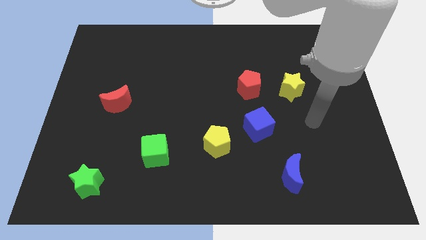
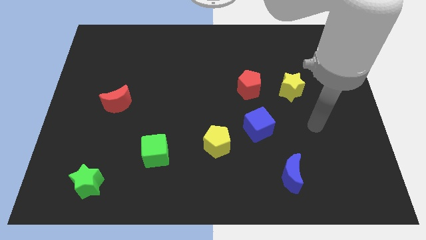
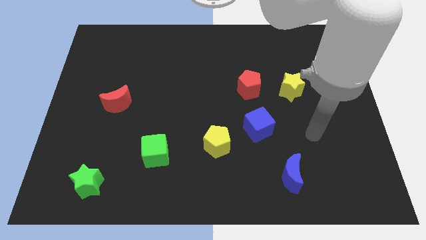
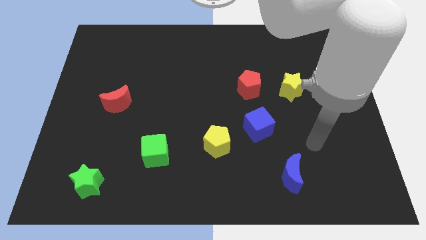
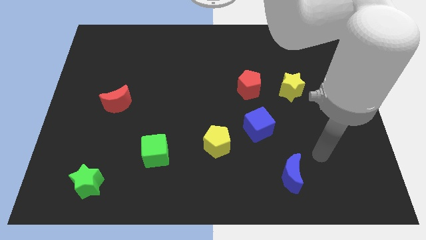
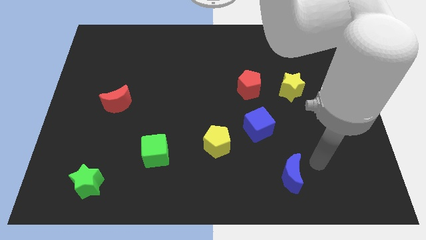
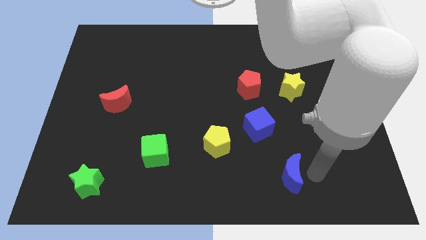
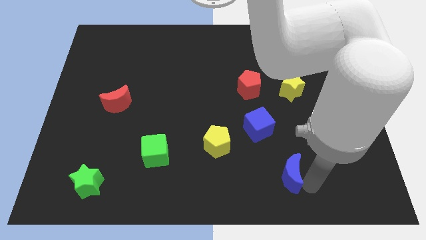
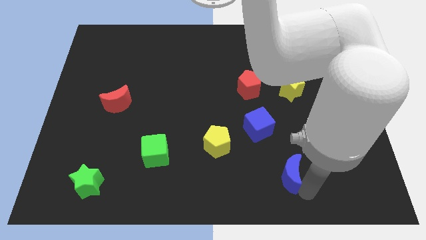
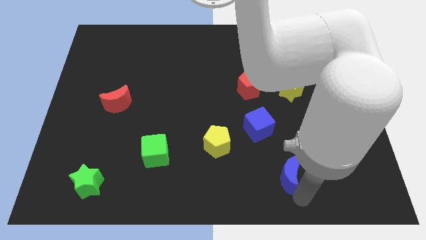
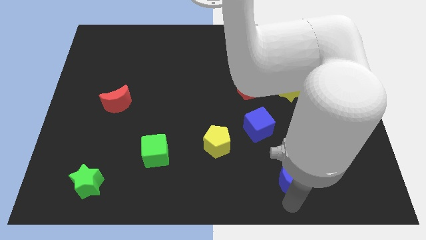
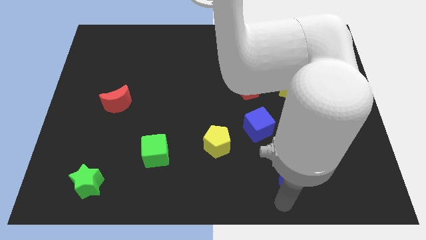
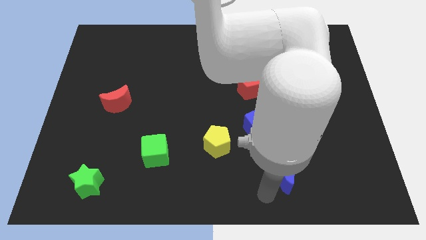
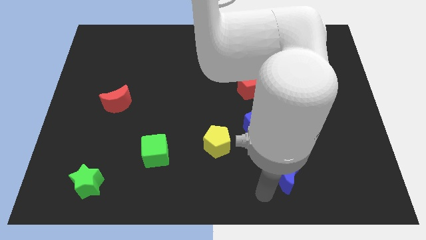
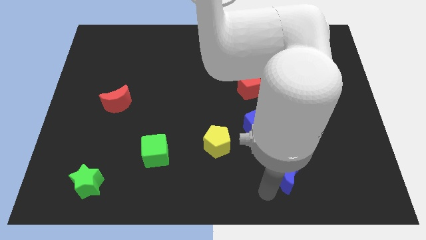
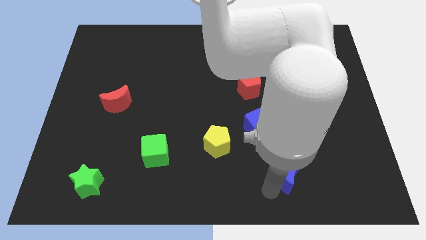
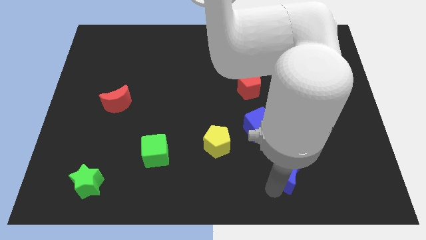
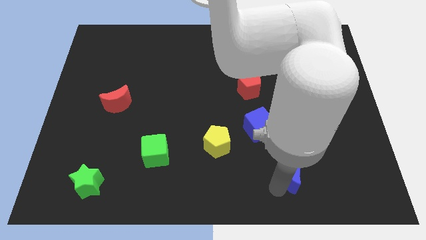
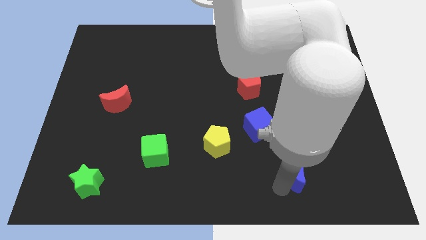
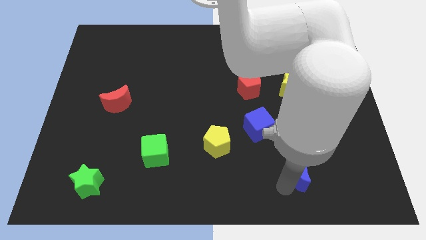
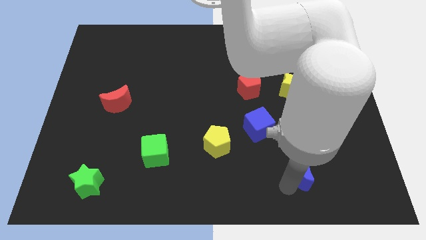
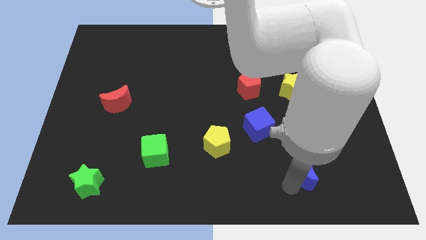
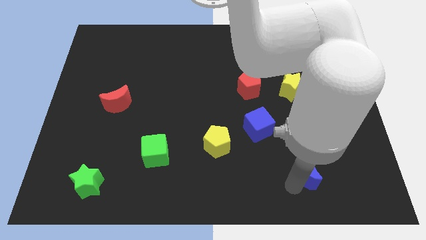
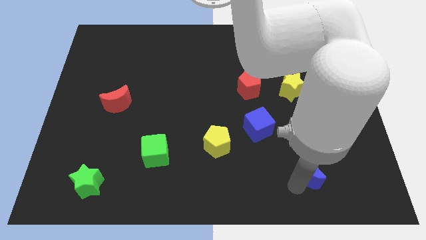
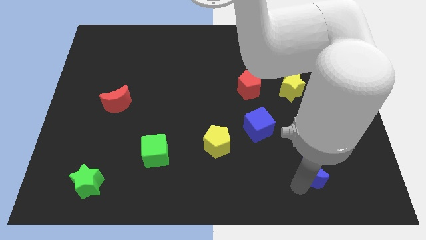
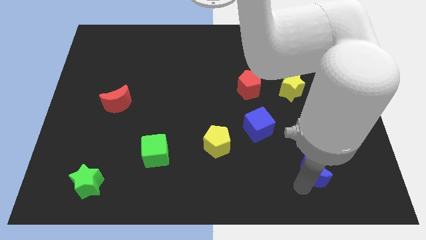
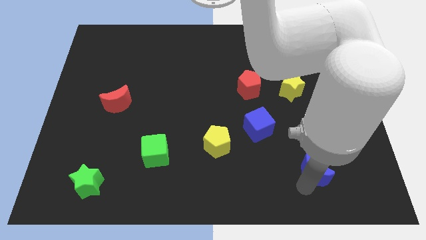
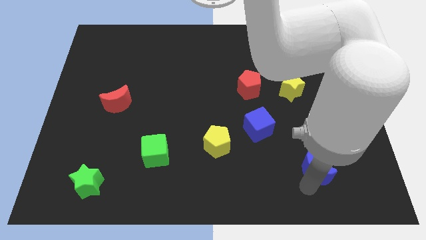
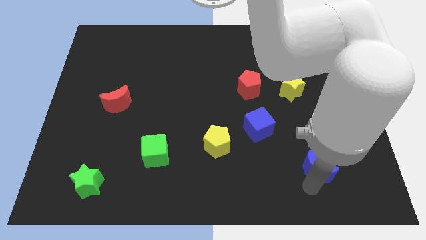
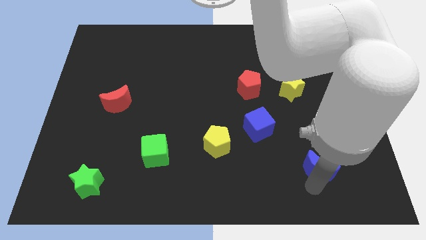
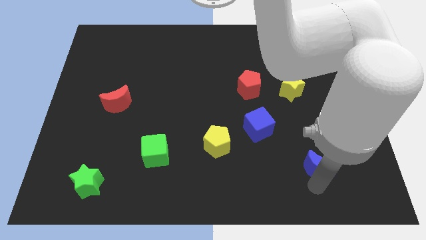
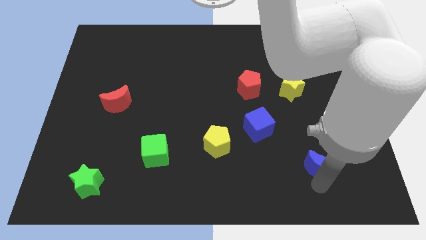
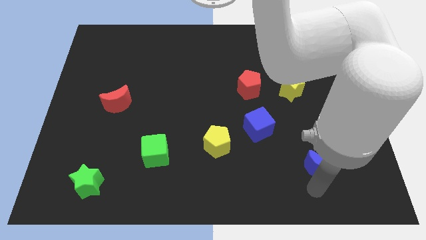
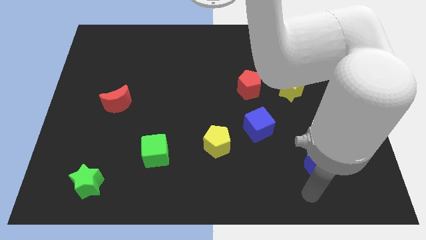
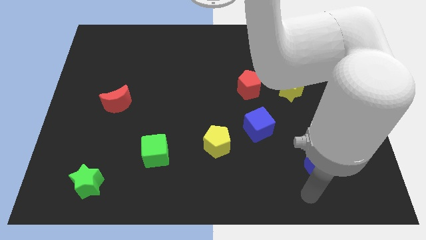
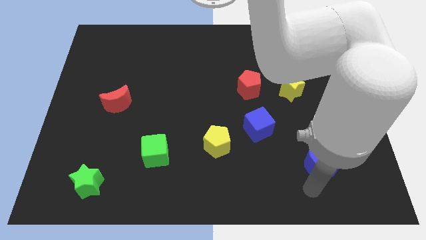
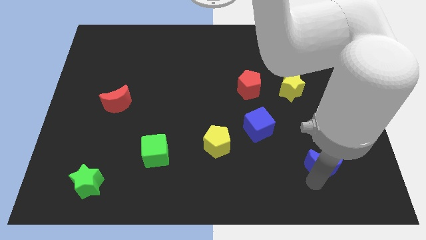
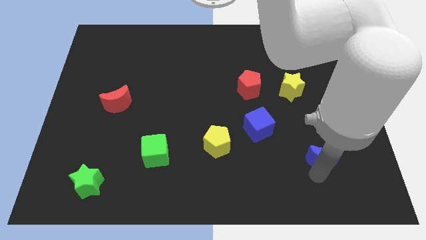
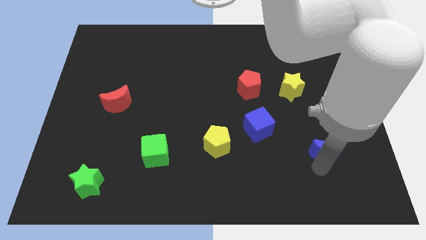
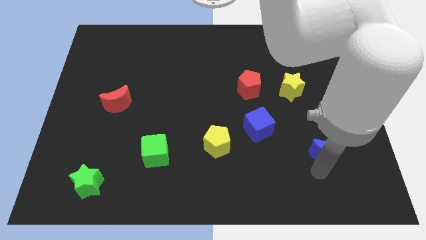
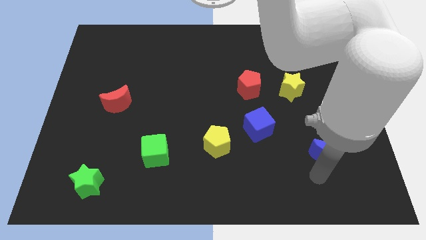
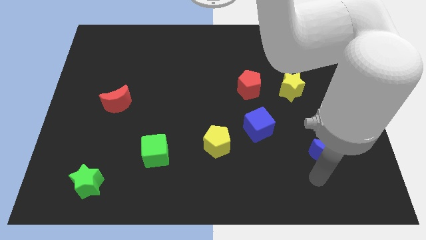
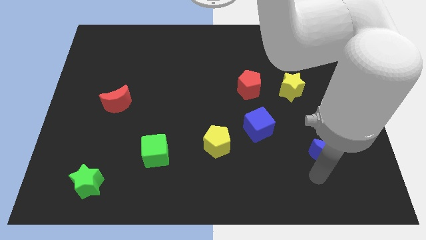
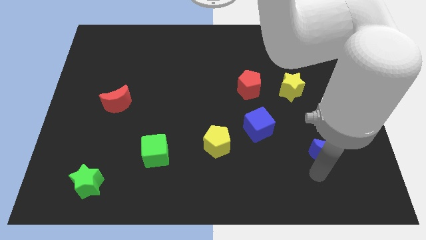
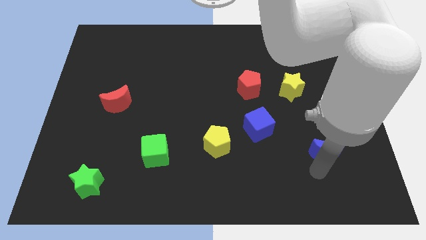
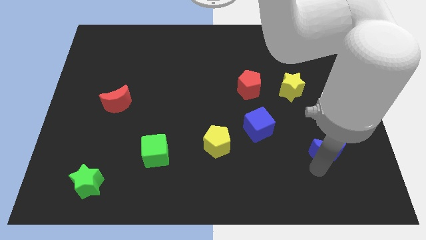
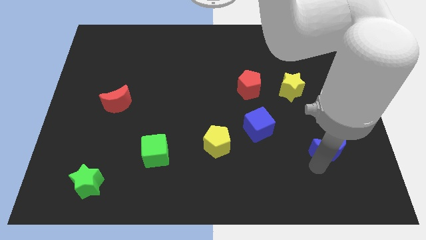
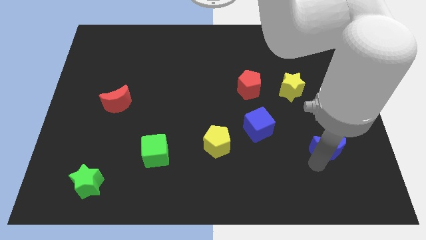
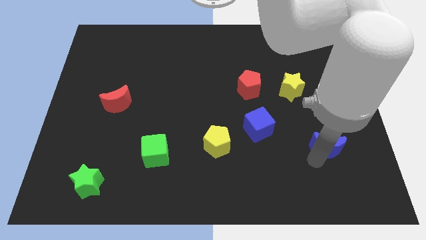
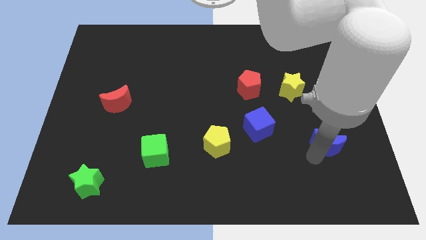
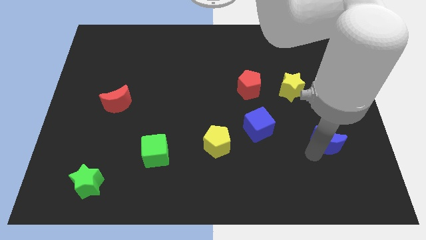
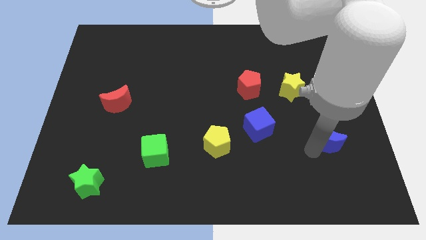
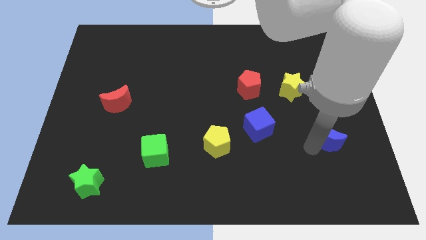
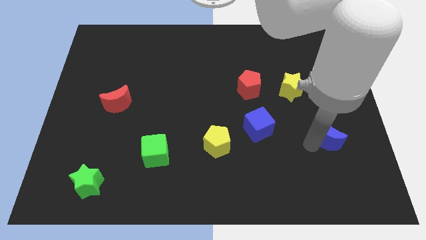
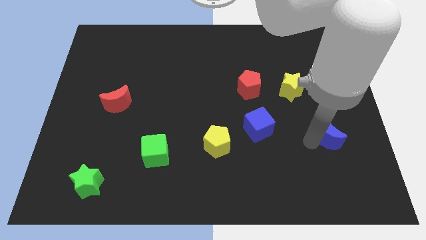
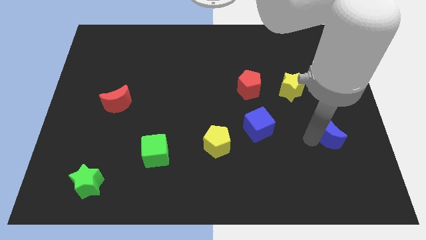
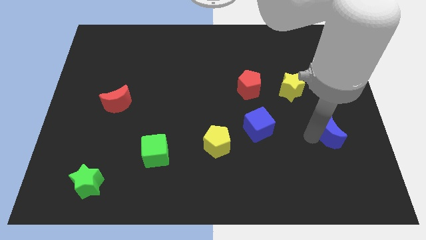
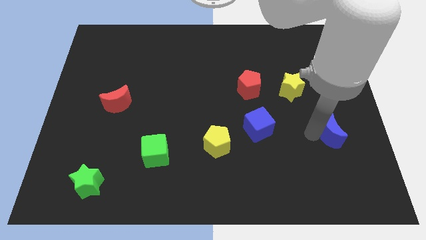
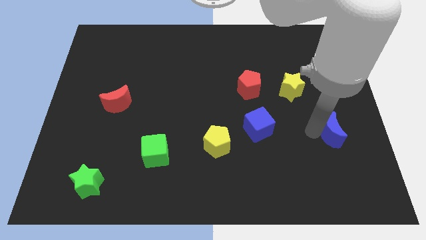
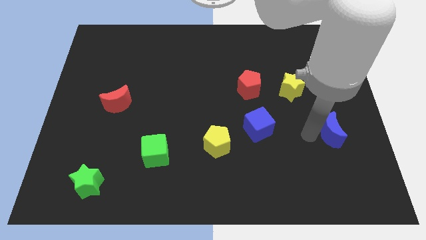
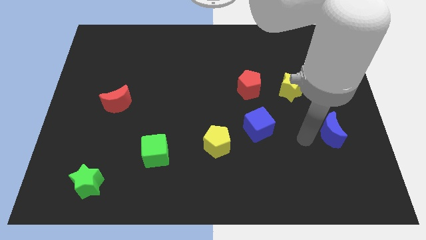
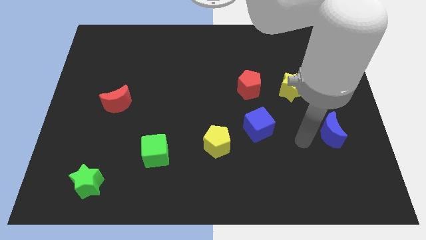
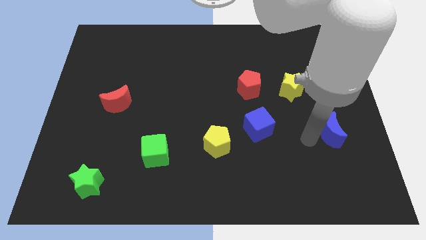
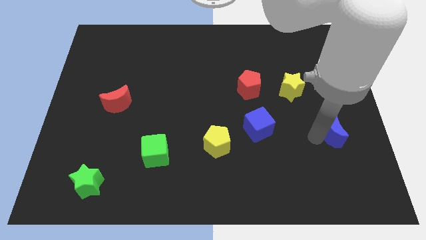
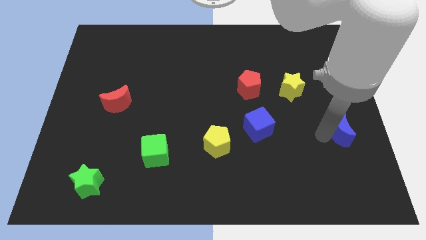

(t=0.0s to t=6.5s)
move the blue moon to the right side
